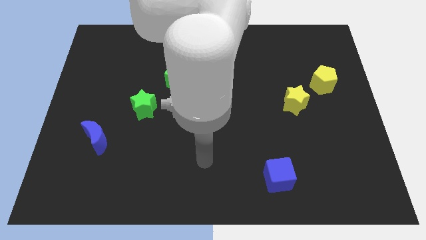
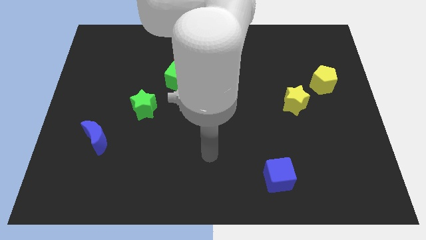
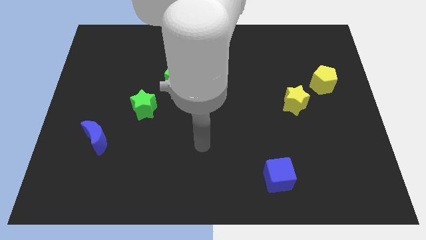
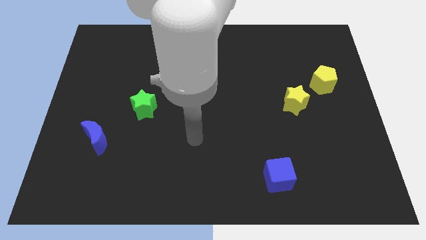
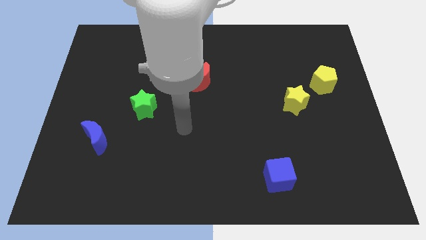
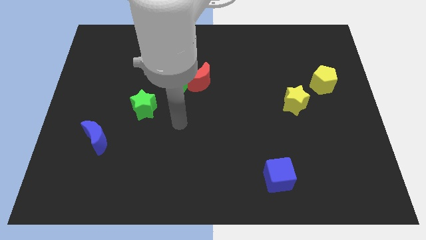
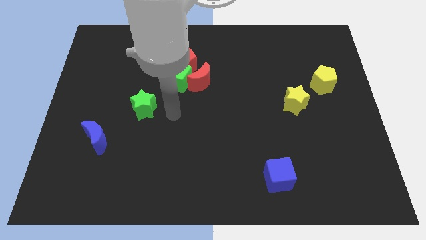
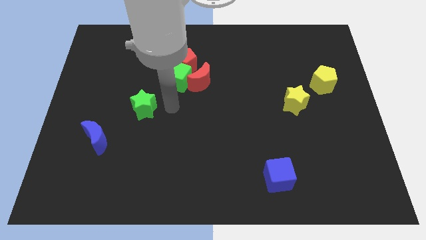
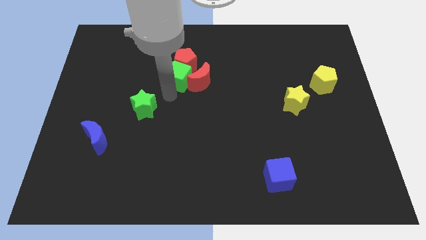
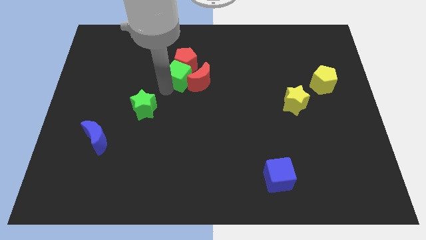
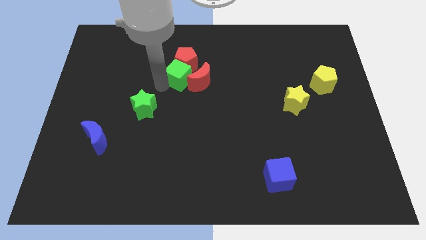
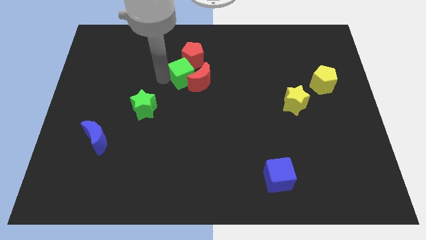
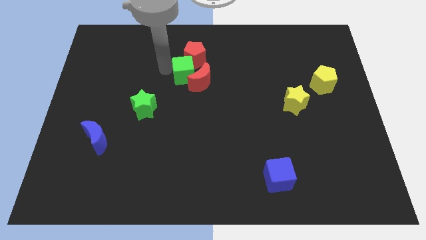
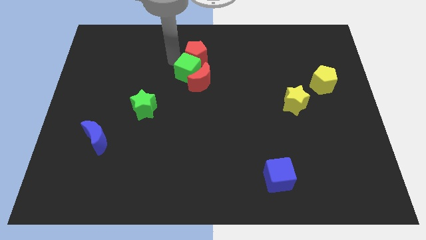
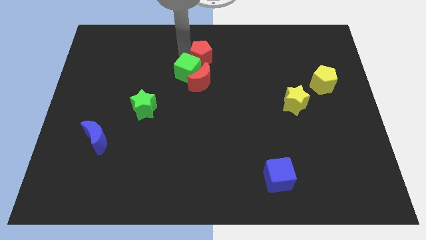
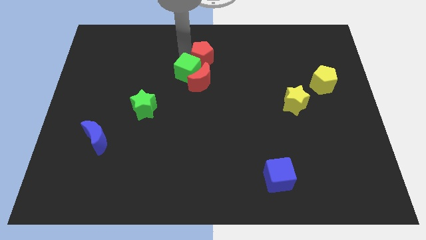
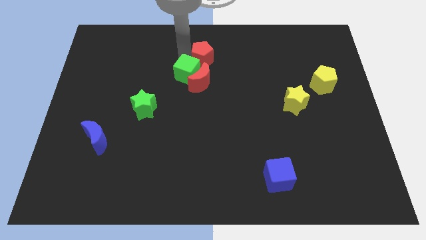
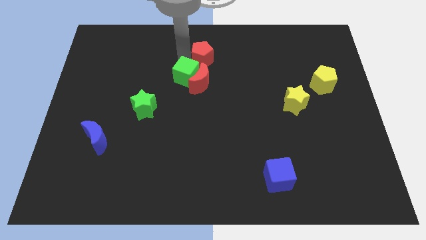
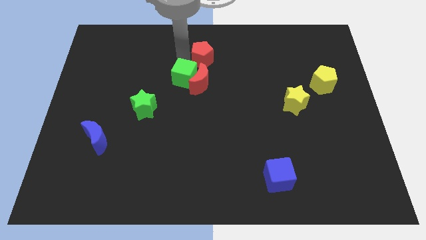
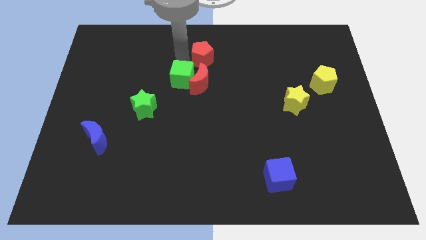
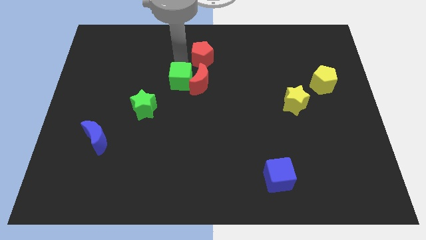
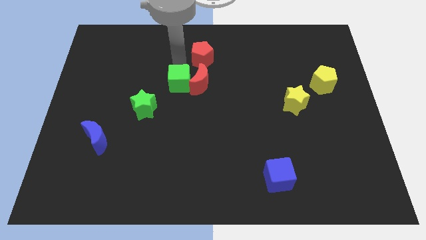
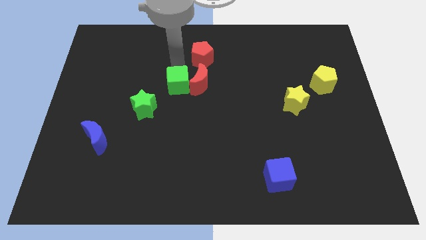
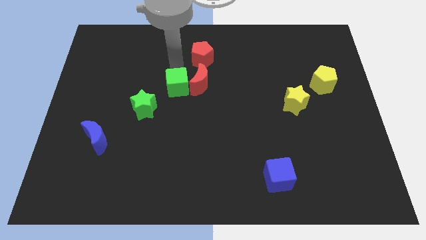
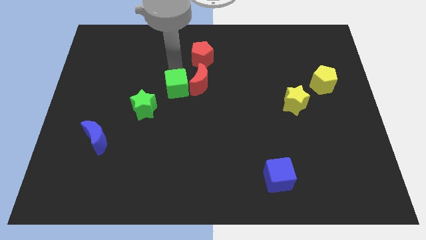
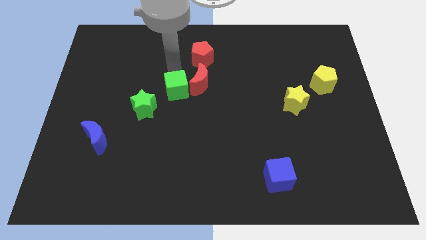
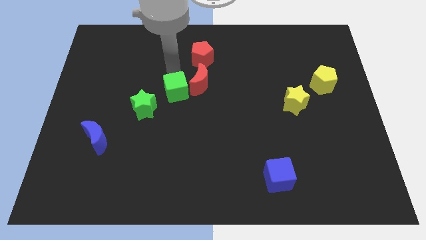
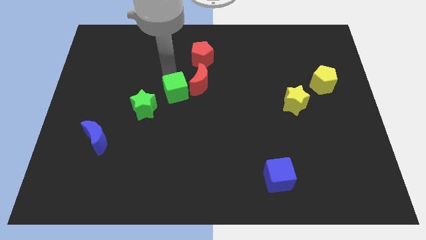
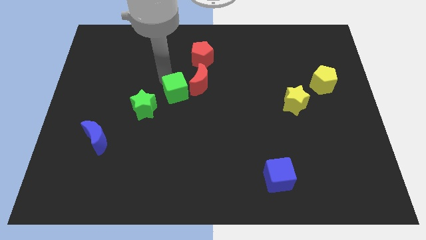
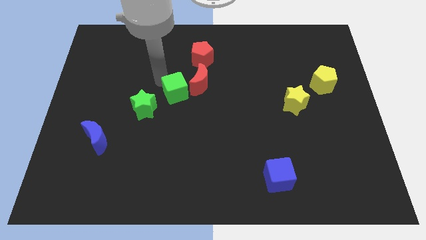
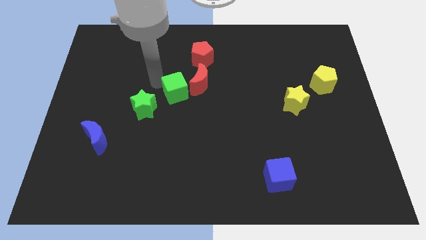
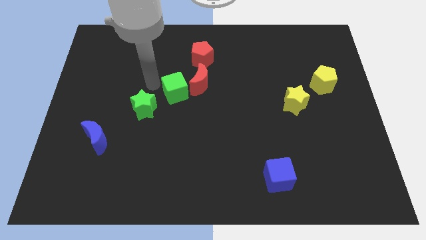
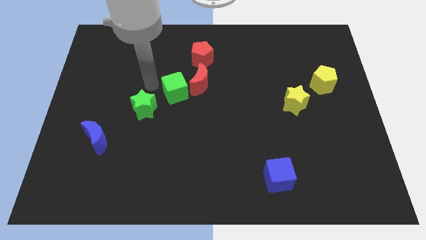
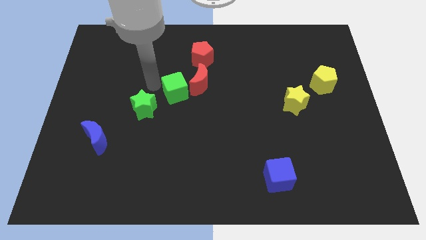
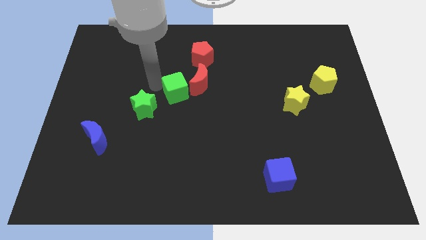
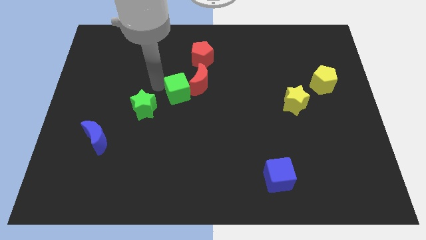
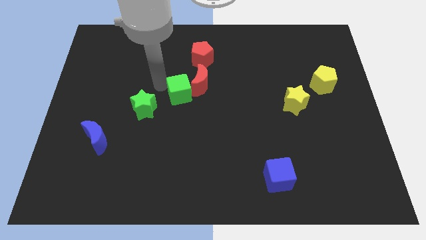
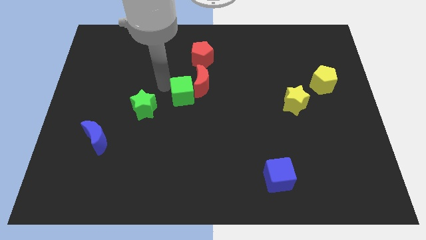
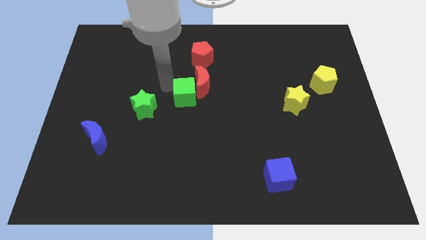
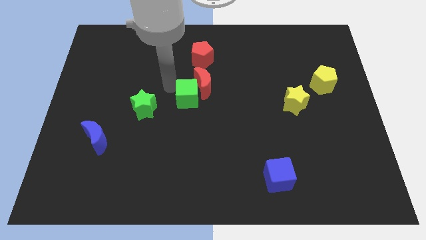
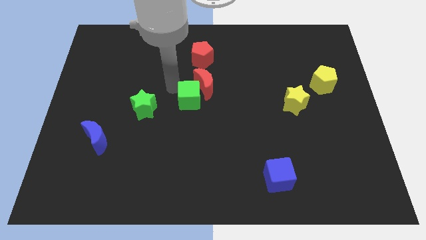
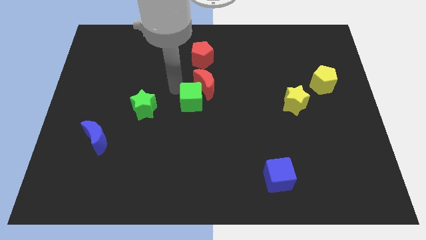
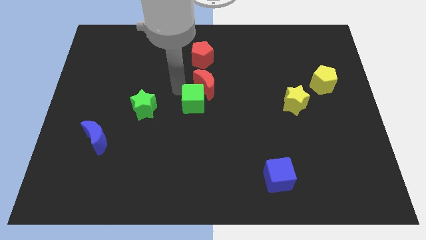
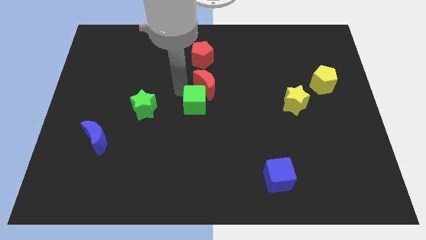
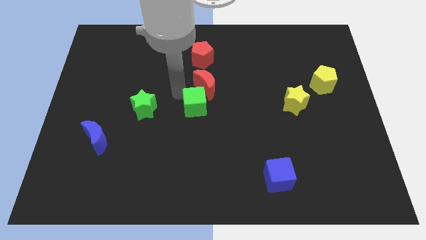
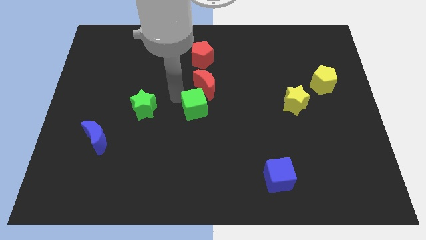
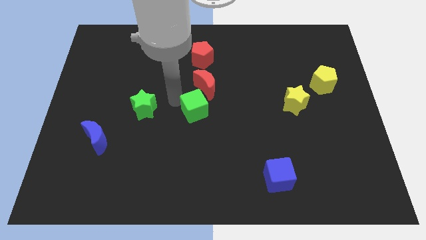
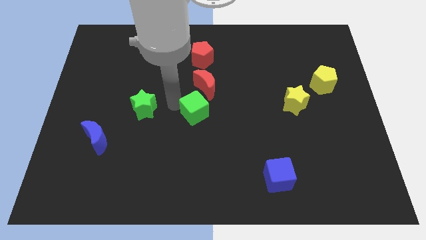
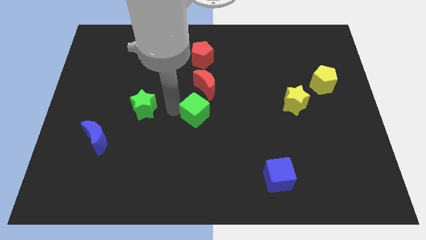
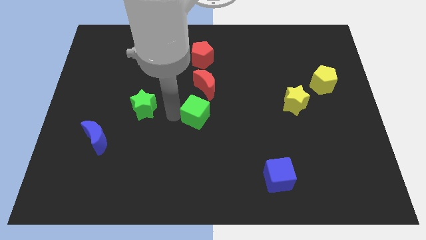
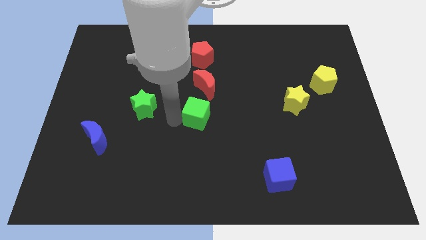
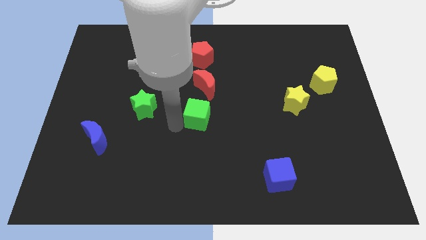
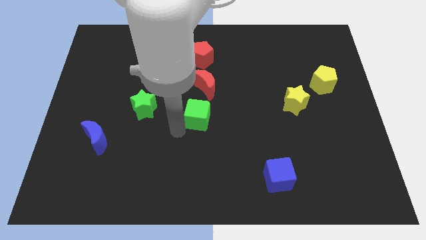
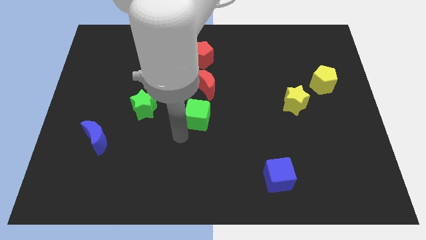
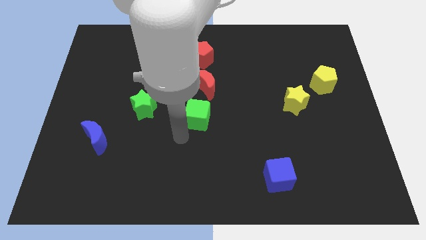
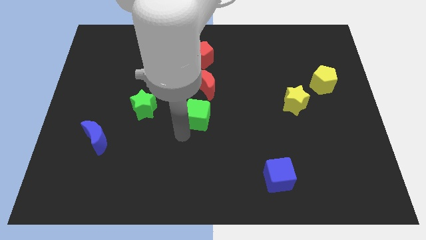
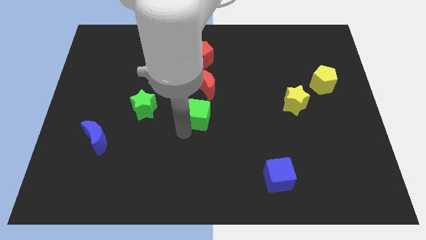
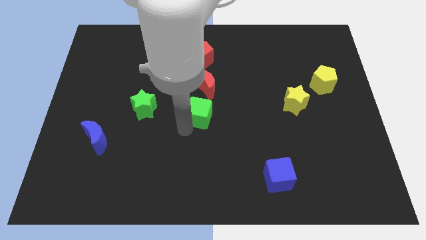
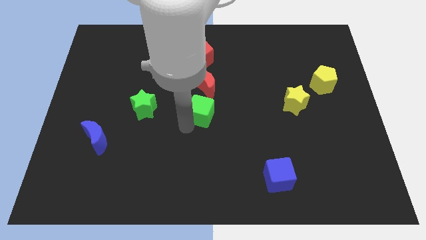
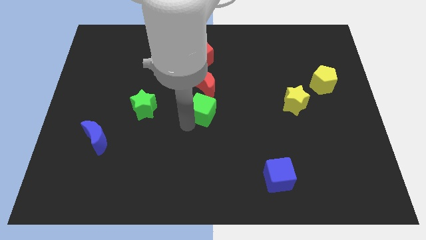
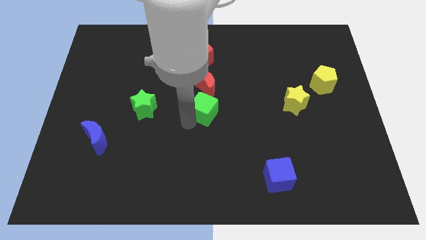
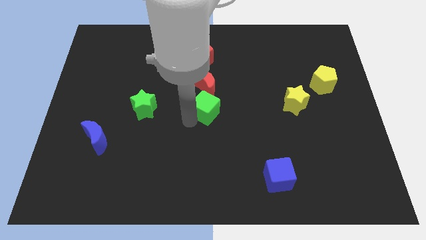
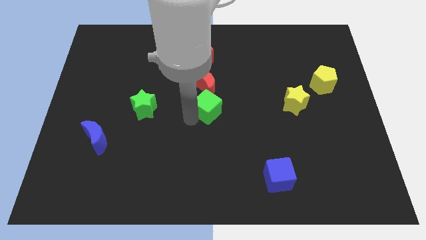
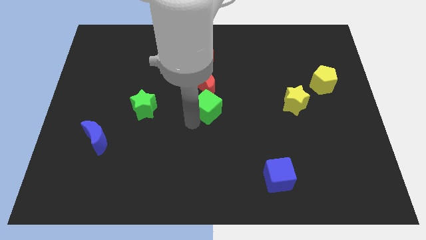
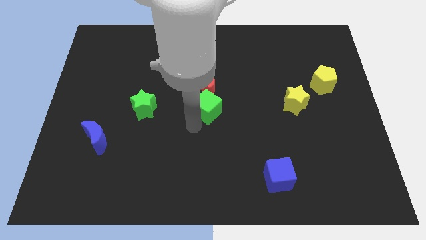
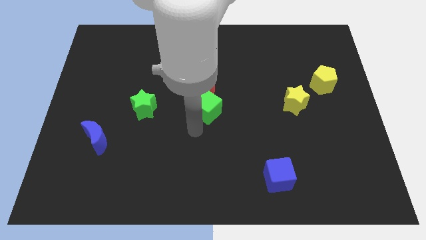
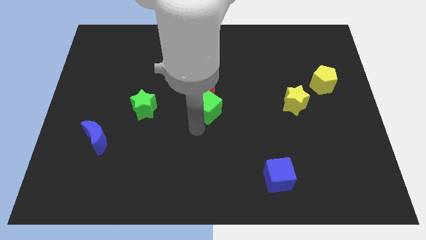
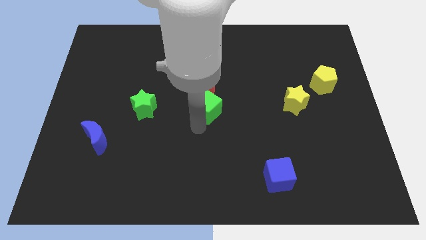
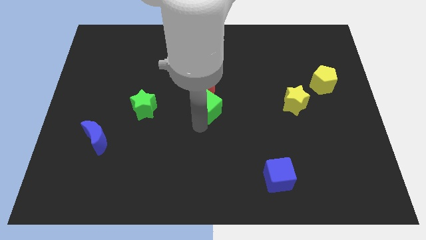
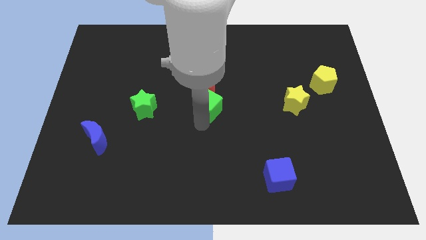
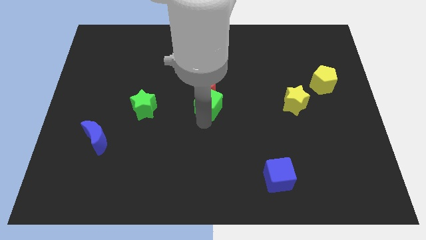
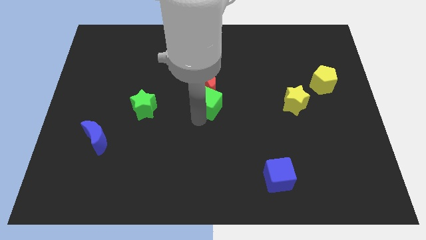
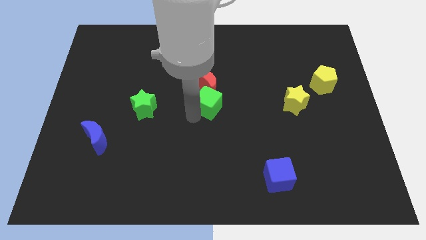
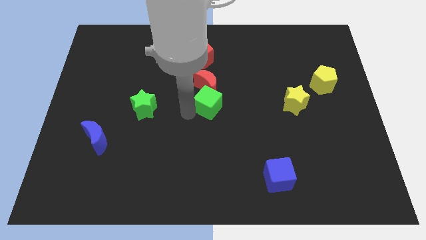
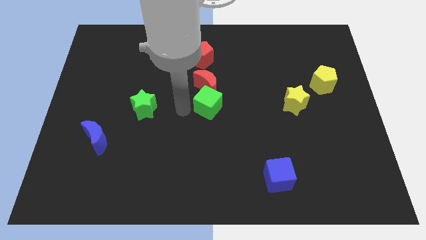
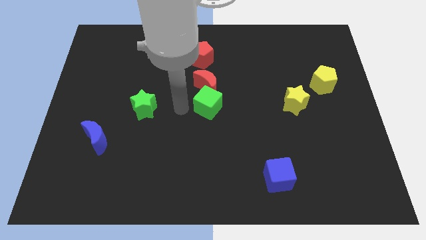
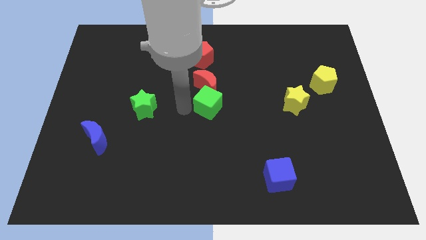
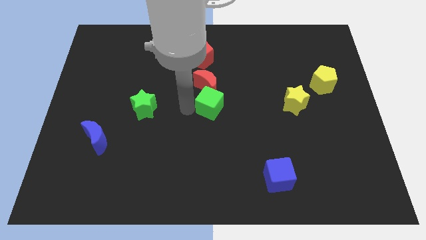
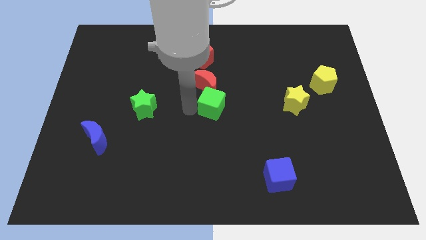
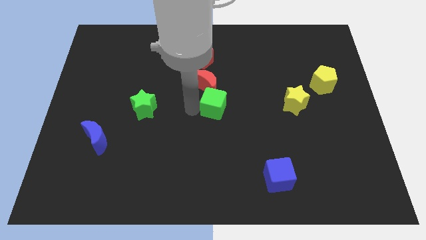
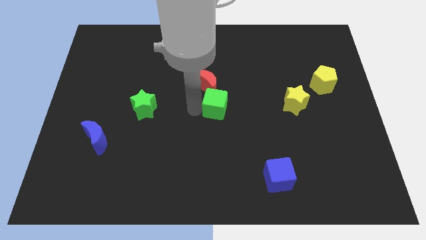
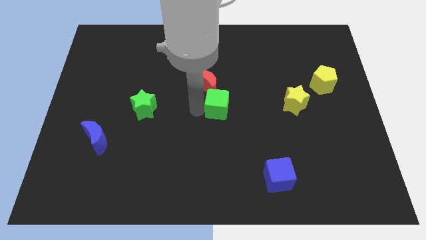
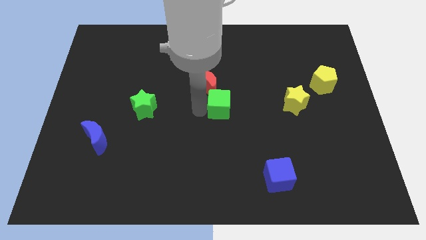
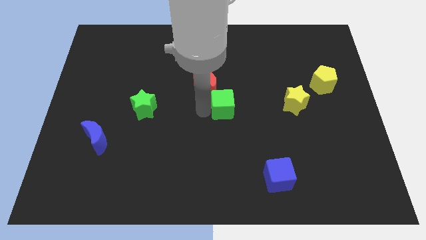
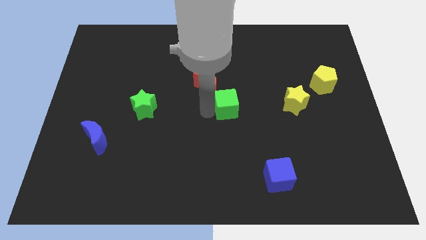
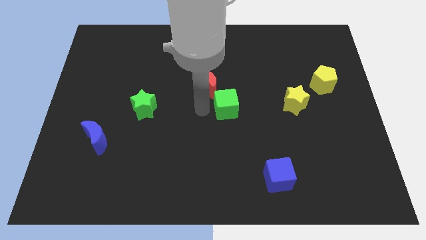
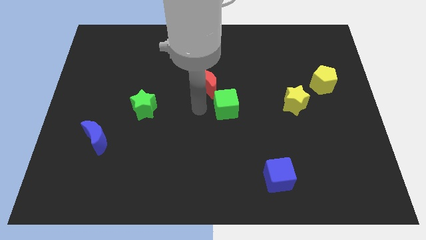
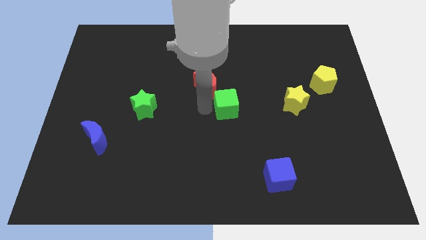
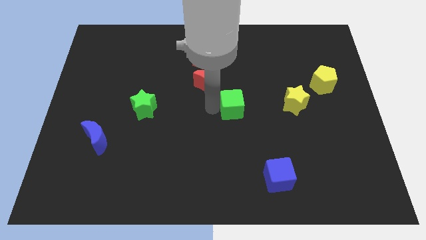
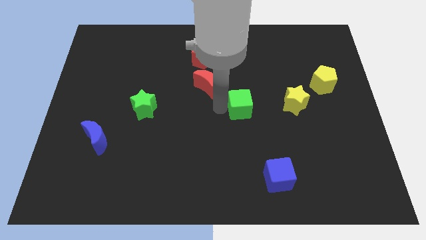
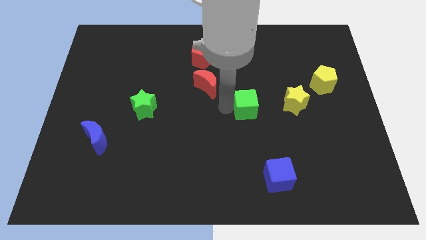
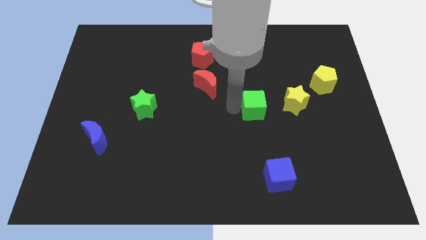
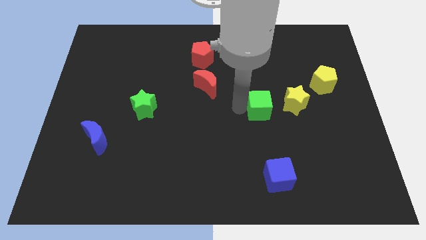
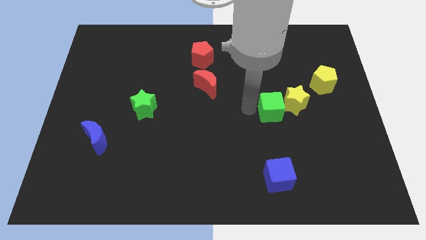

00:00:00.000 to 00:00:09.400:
push the green cube next to the yellow star
